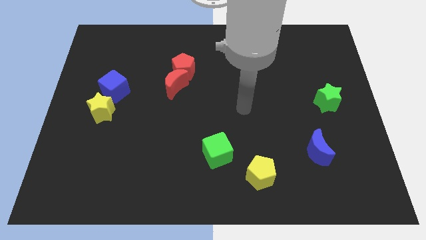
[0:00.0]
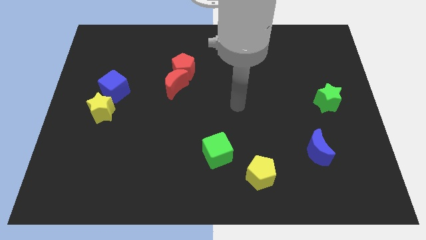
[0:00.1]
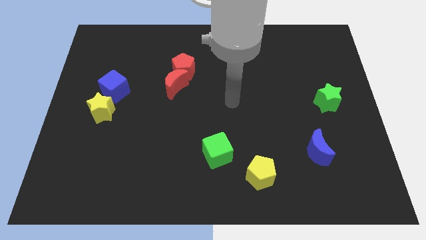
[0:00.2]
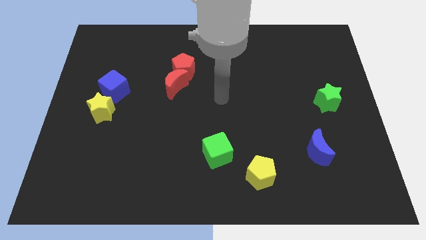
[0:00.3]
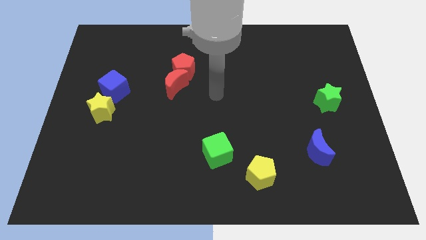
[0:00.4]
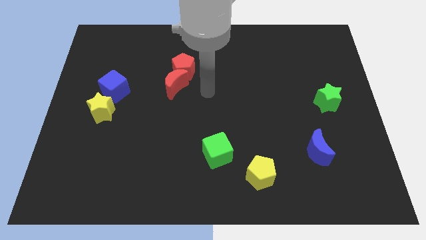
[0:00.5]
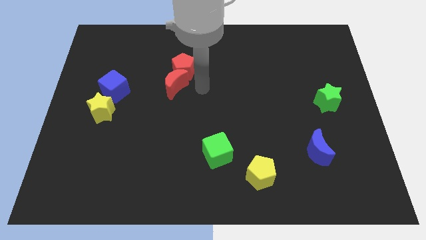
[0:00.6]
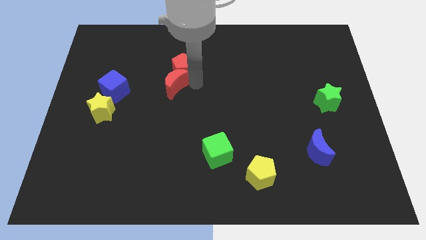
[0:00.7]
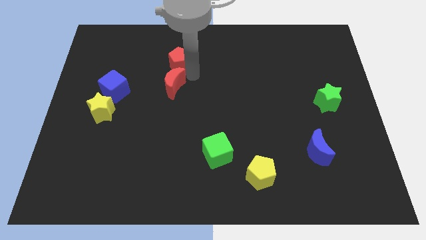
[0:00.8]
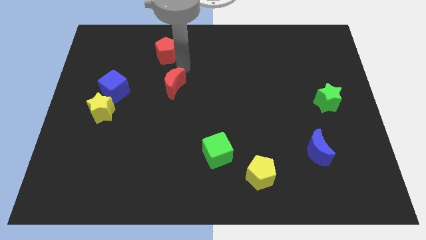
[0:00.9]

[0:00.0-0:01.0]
pull the red moon apart from the red pentagon

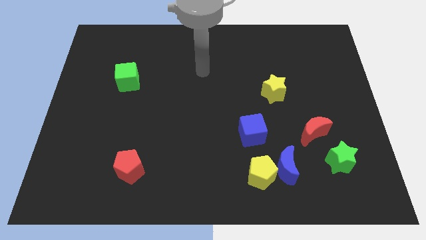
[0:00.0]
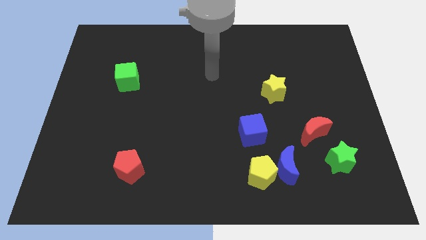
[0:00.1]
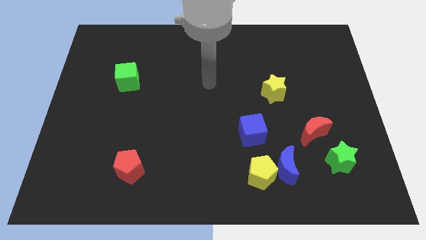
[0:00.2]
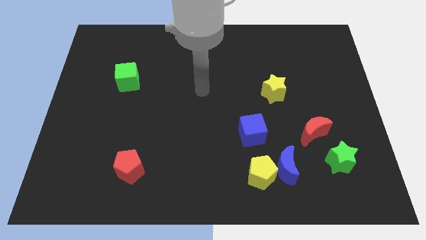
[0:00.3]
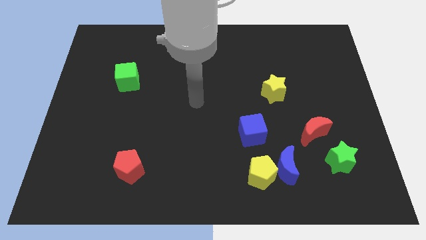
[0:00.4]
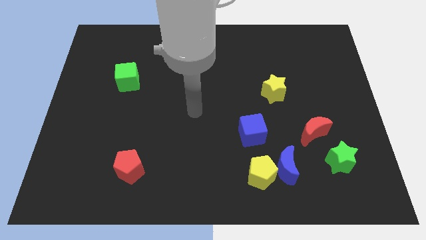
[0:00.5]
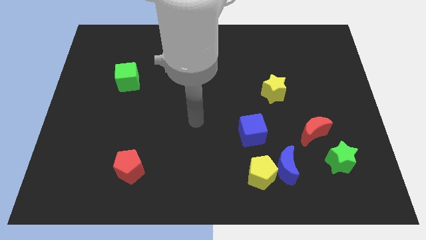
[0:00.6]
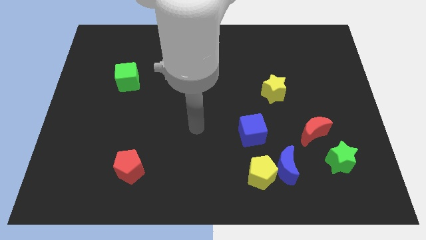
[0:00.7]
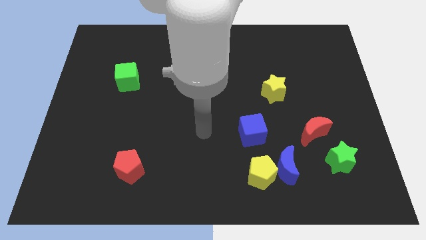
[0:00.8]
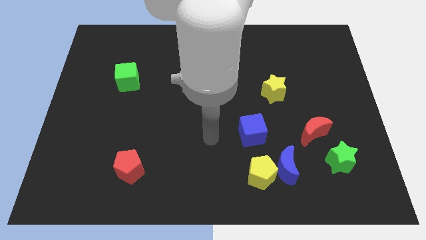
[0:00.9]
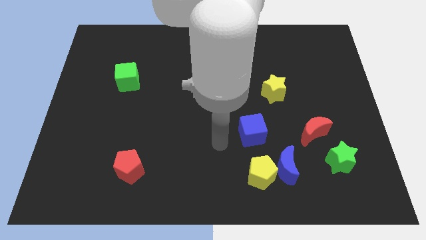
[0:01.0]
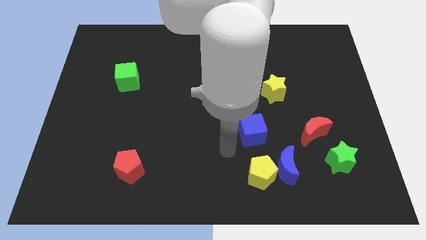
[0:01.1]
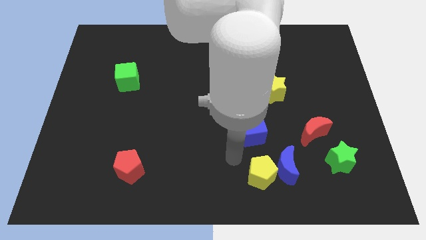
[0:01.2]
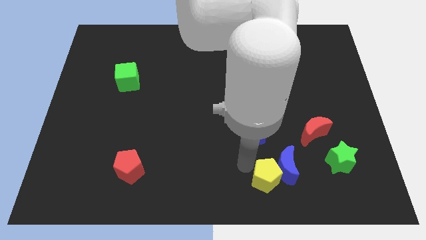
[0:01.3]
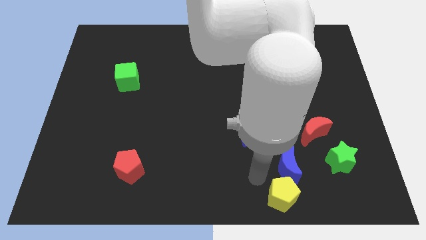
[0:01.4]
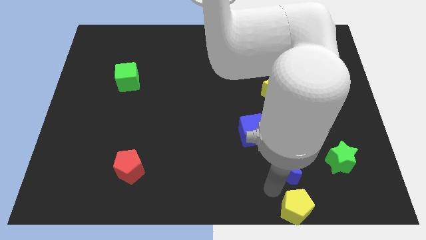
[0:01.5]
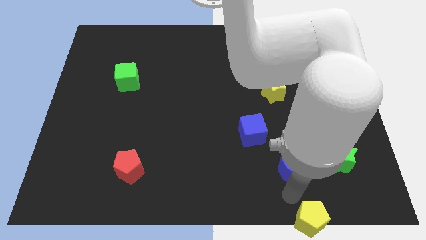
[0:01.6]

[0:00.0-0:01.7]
separate the blue moon from the yellow pentagon

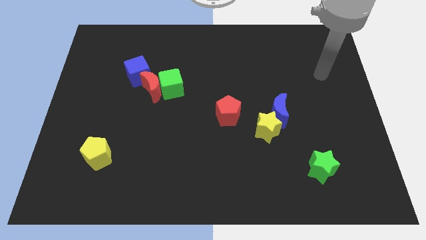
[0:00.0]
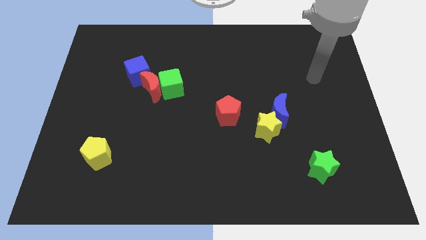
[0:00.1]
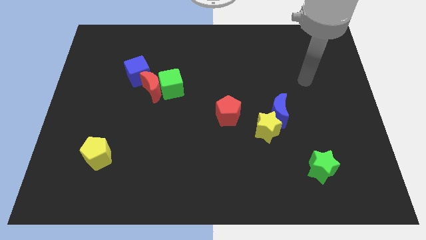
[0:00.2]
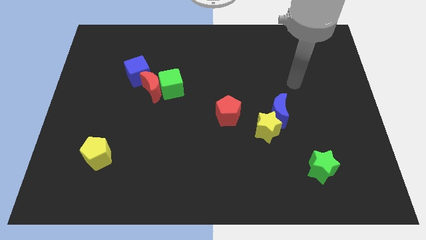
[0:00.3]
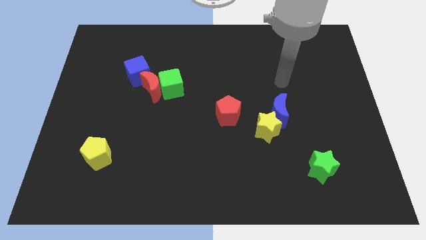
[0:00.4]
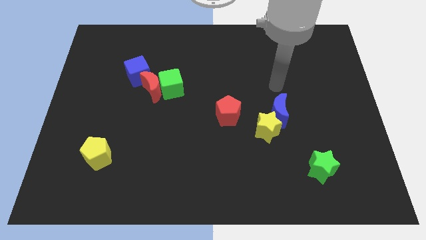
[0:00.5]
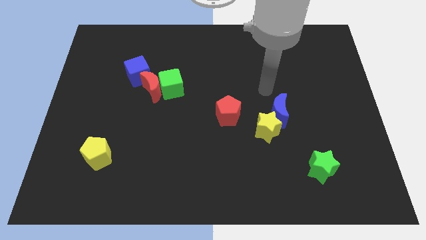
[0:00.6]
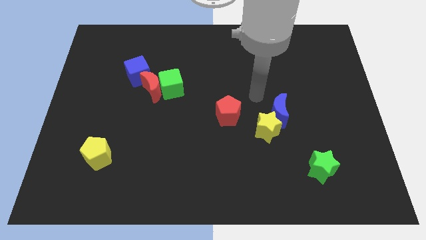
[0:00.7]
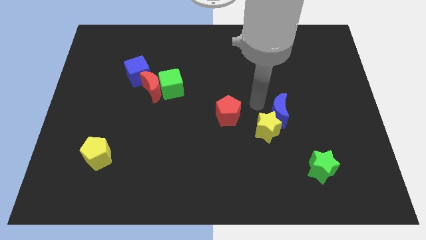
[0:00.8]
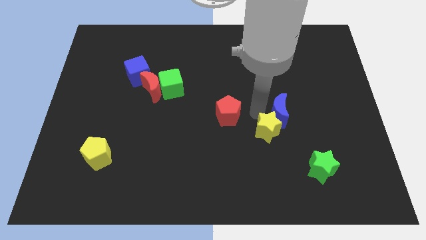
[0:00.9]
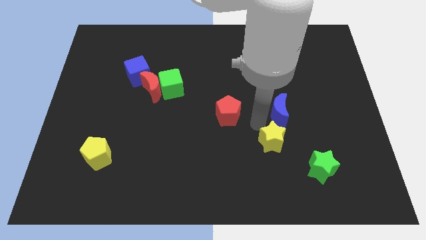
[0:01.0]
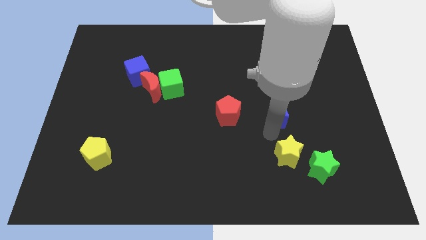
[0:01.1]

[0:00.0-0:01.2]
separate the blue moon from the yellow star

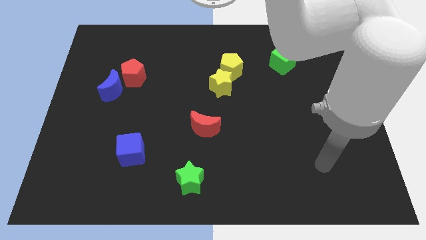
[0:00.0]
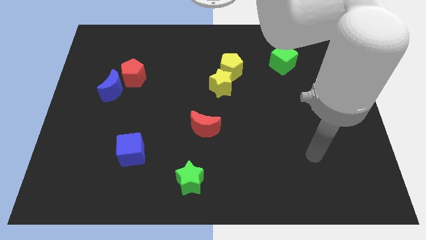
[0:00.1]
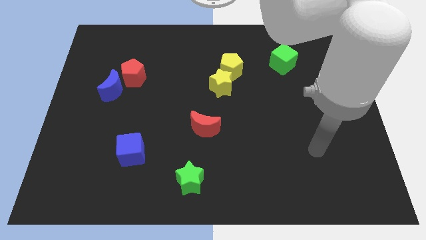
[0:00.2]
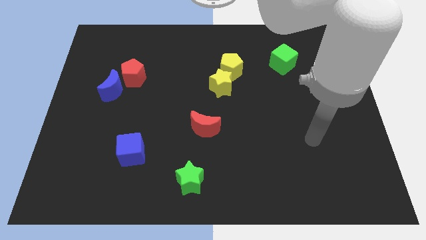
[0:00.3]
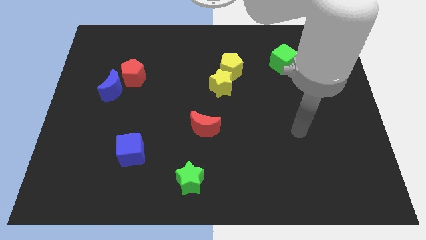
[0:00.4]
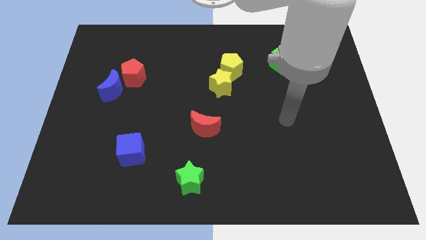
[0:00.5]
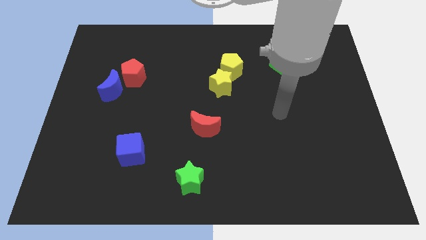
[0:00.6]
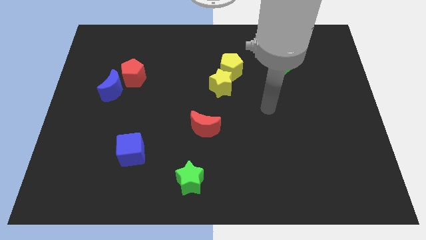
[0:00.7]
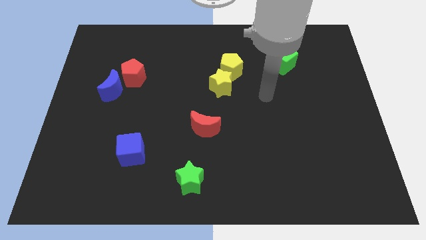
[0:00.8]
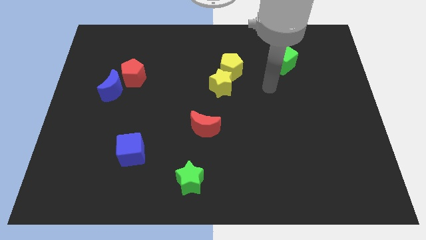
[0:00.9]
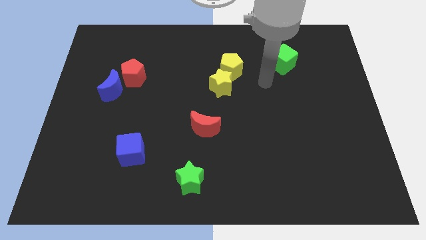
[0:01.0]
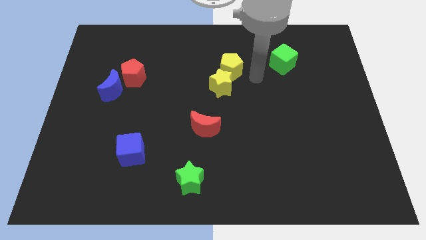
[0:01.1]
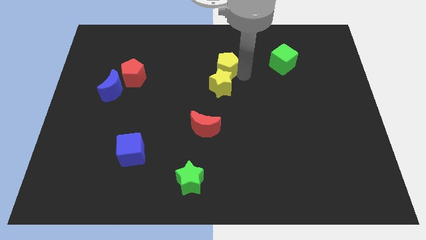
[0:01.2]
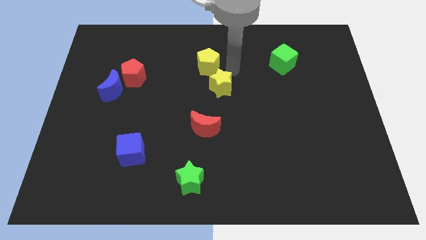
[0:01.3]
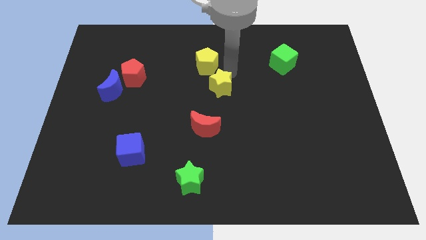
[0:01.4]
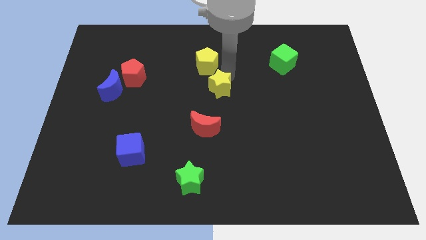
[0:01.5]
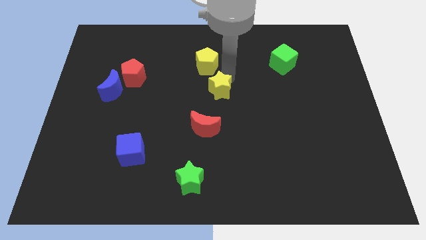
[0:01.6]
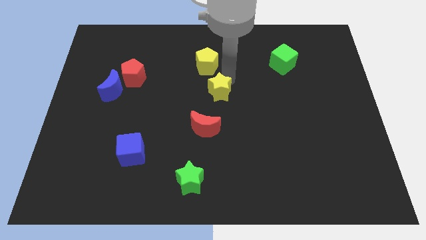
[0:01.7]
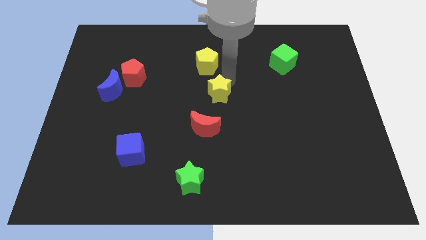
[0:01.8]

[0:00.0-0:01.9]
pull the yellow star apart from the yellow pentagon

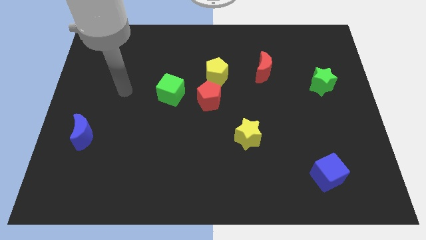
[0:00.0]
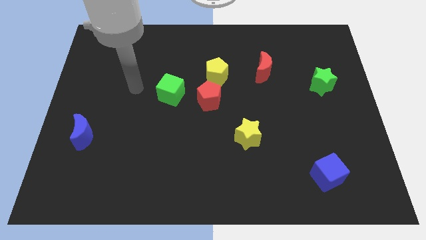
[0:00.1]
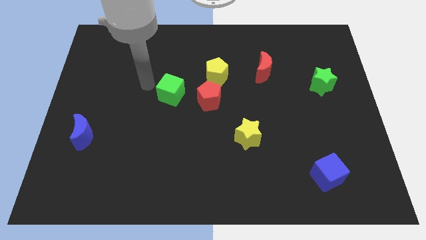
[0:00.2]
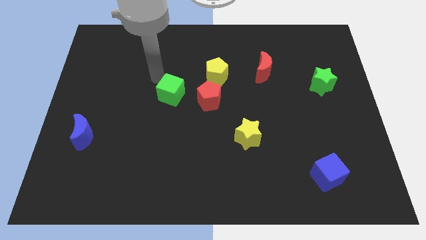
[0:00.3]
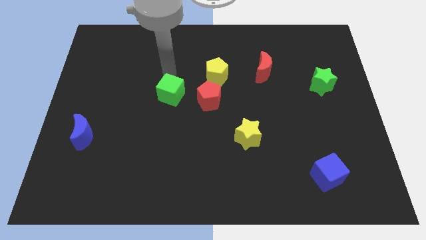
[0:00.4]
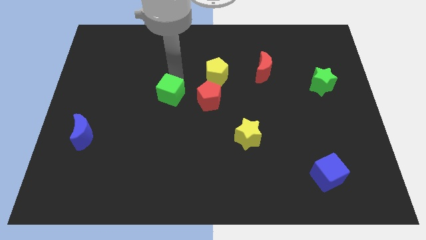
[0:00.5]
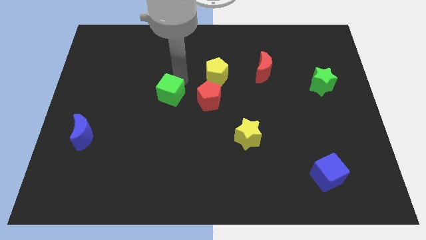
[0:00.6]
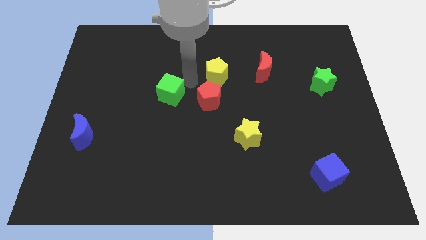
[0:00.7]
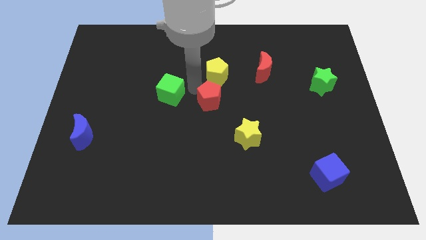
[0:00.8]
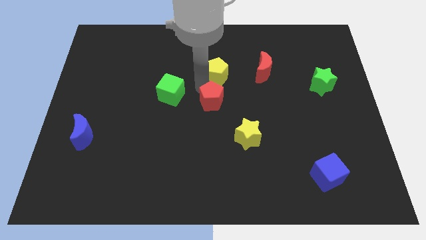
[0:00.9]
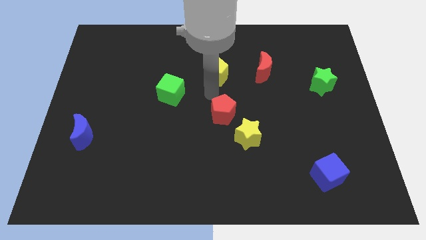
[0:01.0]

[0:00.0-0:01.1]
move the yellow pentagon away from the red pentagon

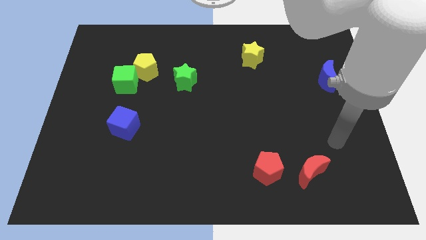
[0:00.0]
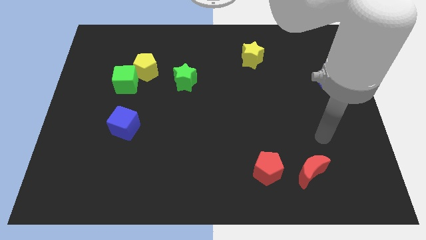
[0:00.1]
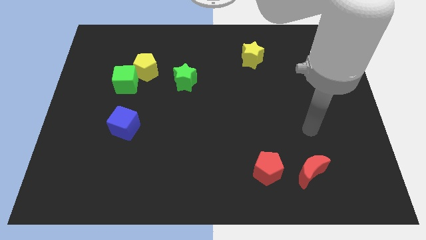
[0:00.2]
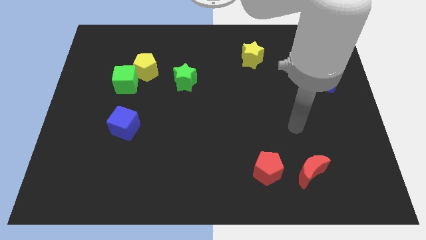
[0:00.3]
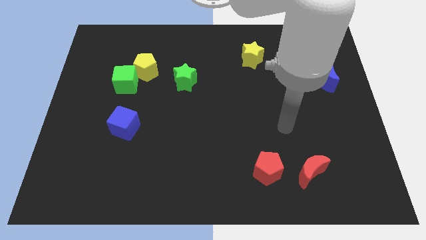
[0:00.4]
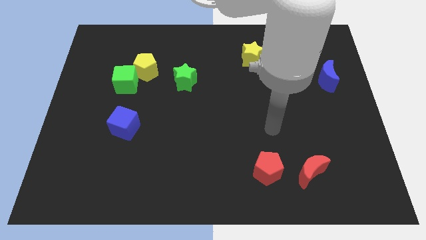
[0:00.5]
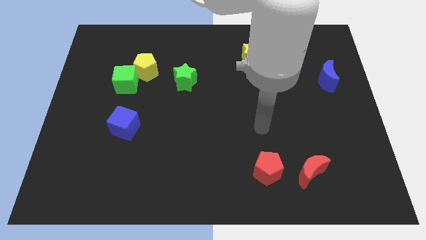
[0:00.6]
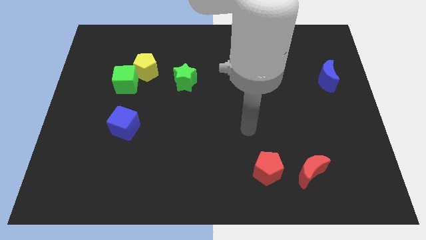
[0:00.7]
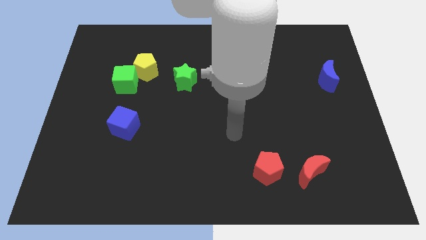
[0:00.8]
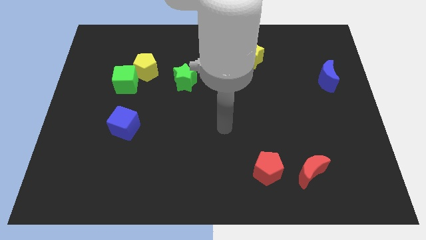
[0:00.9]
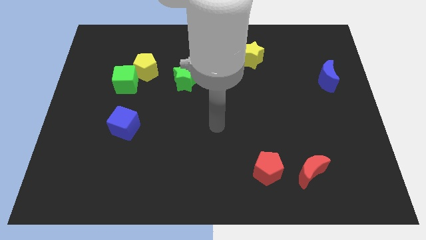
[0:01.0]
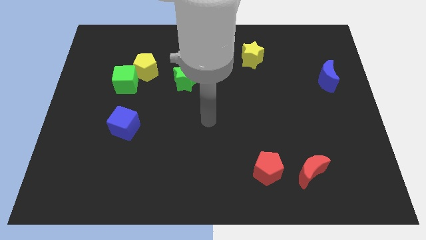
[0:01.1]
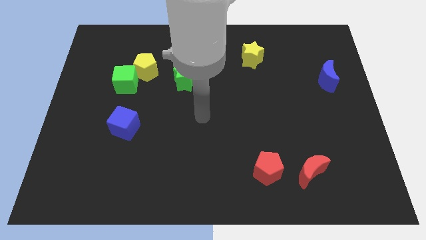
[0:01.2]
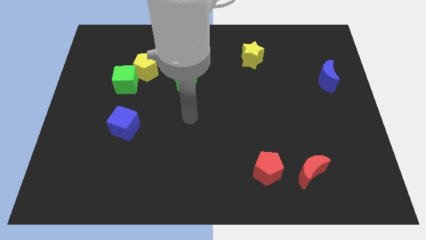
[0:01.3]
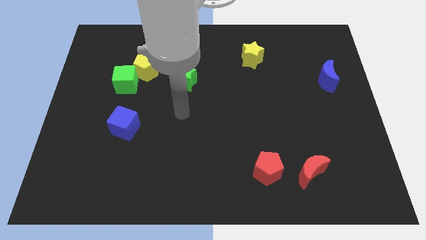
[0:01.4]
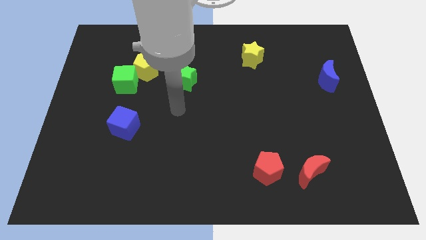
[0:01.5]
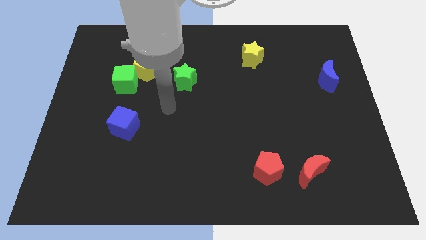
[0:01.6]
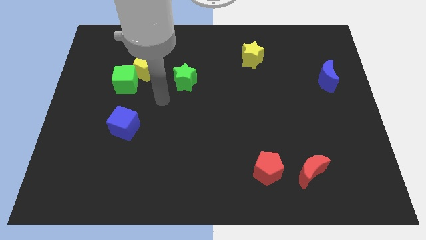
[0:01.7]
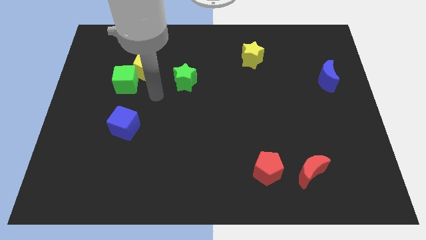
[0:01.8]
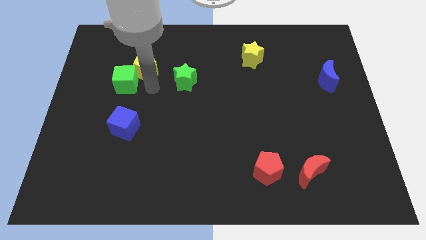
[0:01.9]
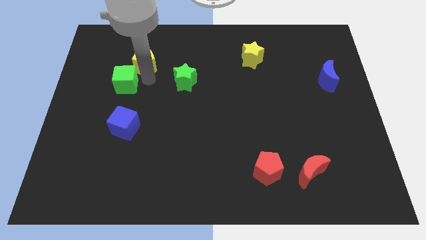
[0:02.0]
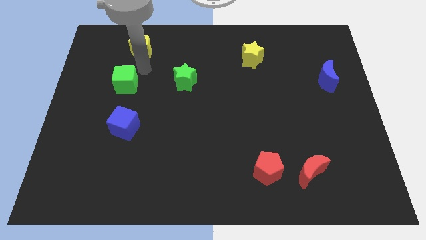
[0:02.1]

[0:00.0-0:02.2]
move the green cube away from the yellow pentagon

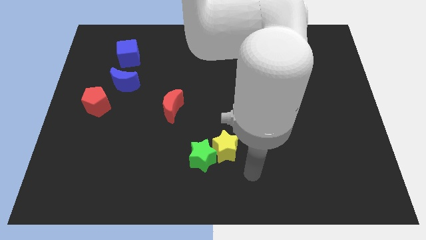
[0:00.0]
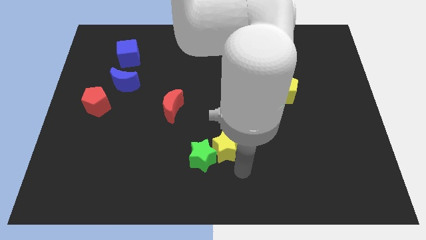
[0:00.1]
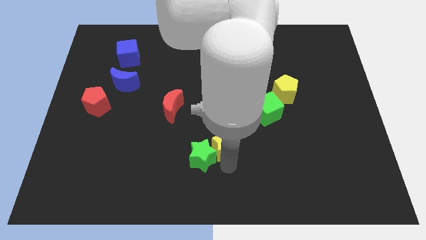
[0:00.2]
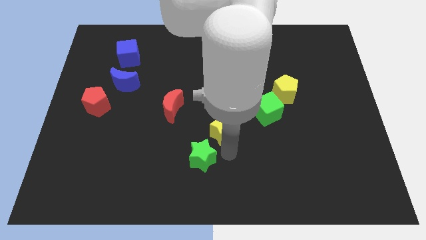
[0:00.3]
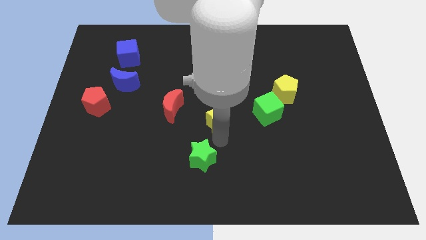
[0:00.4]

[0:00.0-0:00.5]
separate the green star from the yellow star
